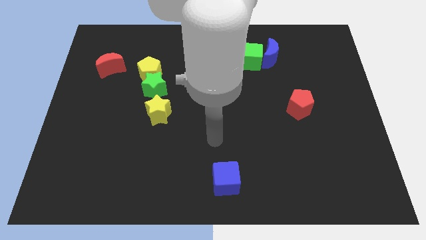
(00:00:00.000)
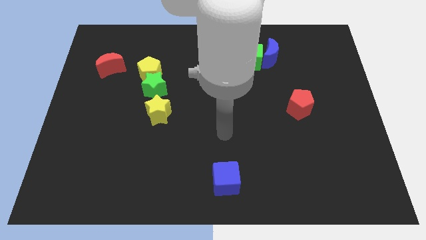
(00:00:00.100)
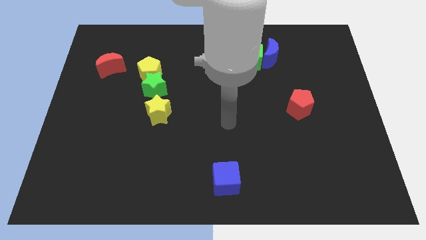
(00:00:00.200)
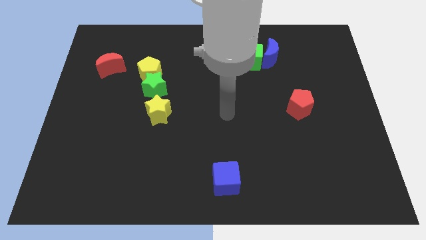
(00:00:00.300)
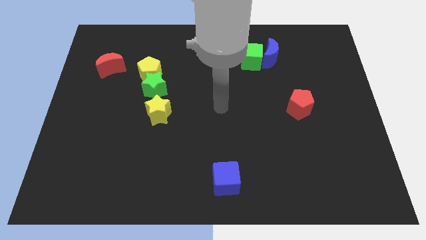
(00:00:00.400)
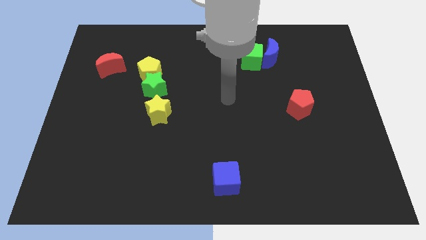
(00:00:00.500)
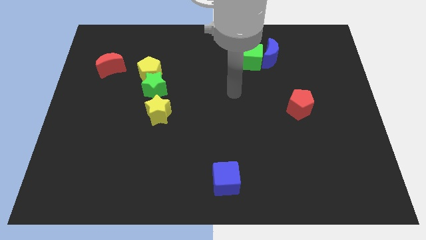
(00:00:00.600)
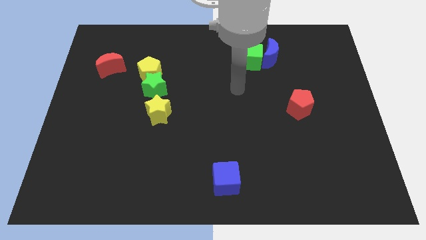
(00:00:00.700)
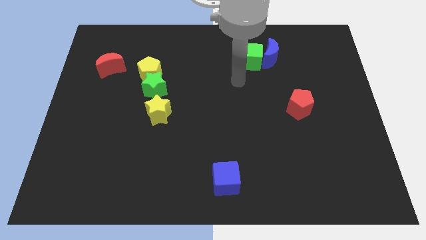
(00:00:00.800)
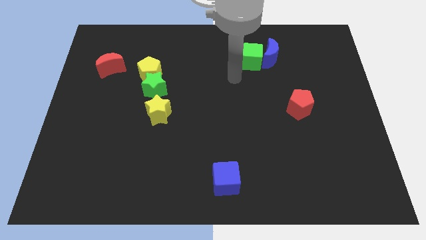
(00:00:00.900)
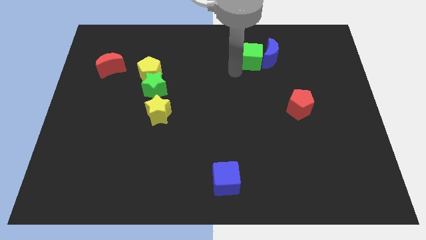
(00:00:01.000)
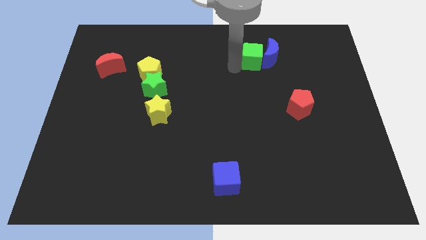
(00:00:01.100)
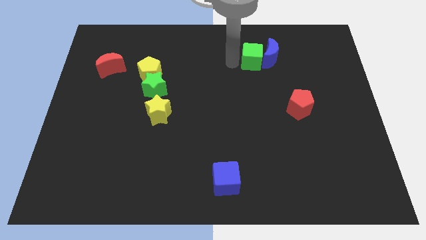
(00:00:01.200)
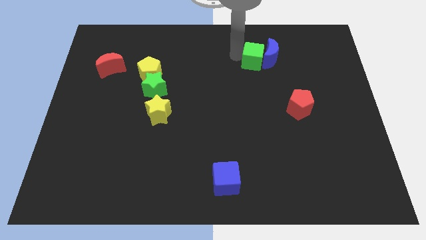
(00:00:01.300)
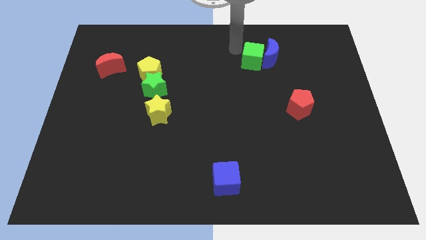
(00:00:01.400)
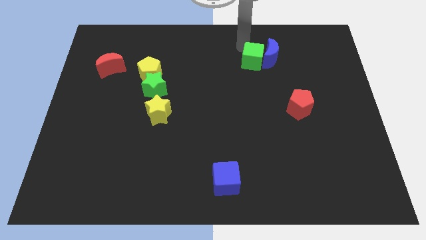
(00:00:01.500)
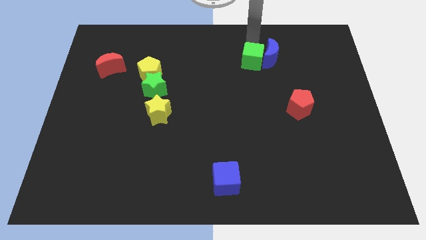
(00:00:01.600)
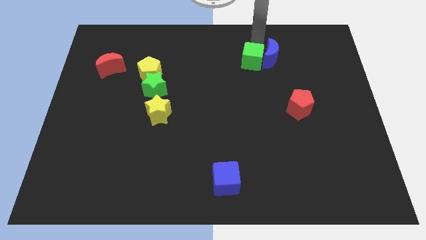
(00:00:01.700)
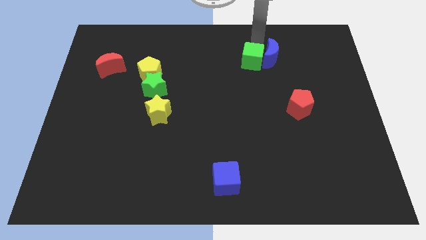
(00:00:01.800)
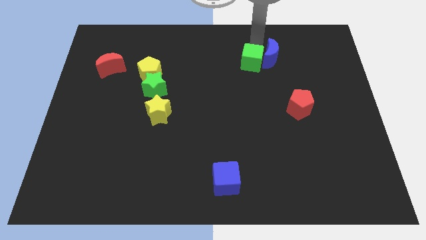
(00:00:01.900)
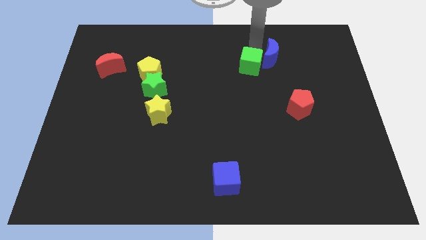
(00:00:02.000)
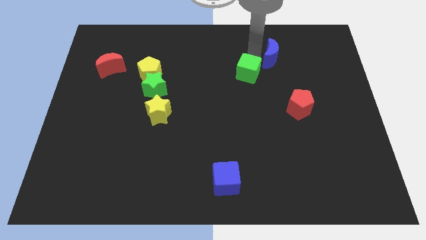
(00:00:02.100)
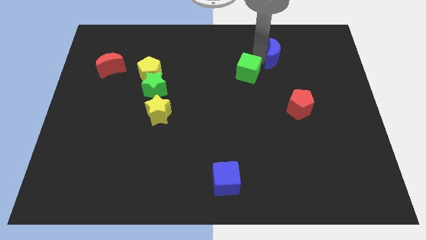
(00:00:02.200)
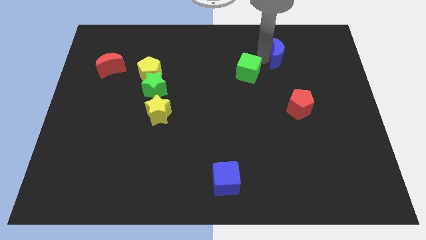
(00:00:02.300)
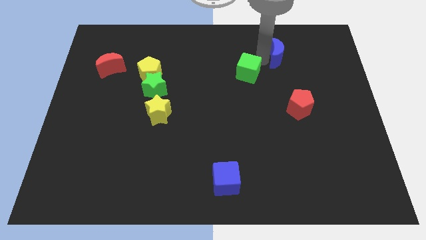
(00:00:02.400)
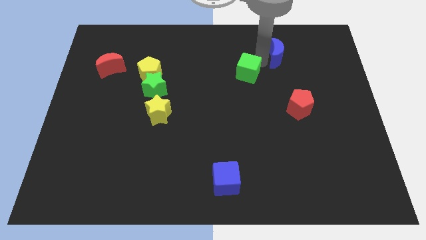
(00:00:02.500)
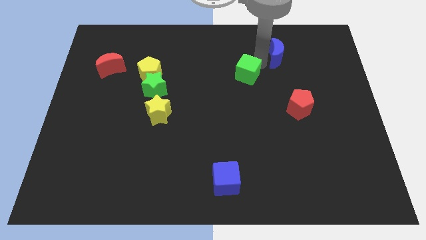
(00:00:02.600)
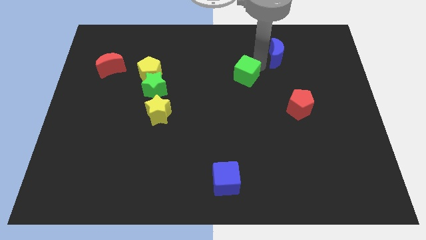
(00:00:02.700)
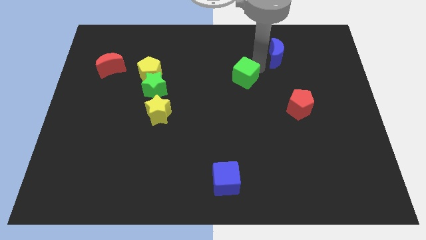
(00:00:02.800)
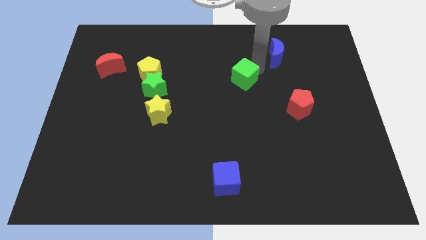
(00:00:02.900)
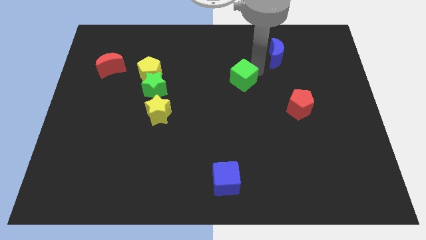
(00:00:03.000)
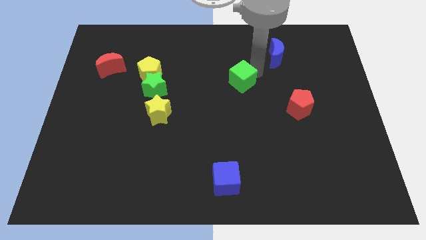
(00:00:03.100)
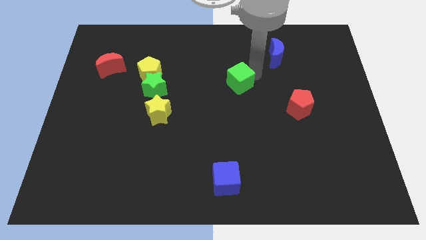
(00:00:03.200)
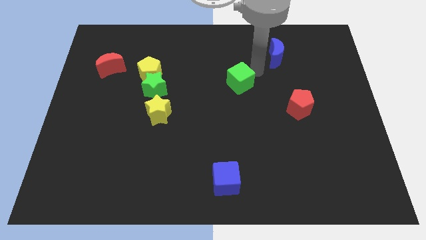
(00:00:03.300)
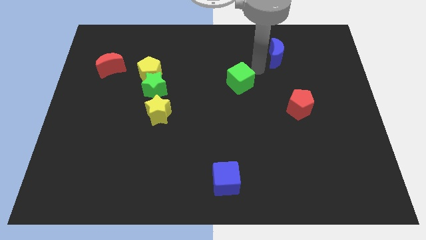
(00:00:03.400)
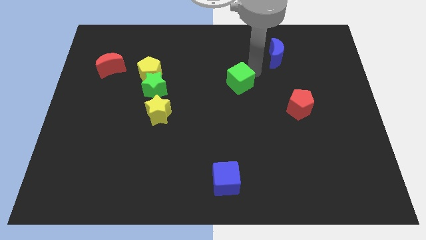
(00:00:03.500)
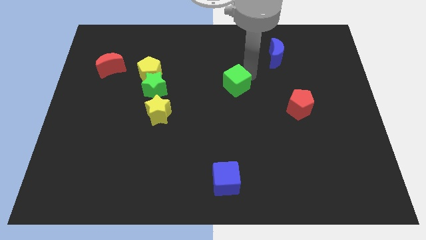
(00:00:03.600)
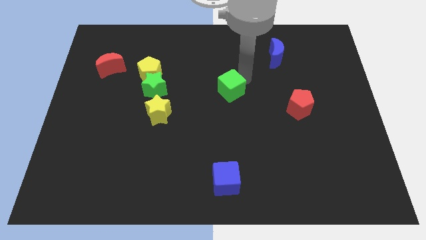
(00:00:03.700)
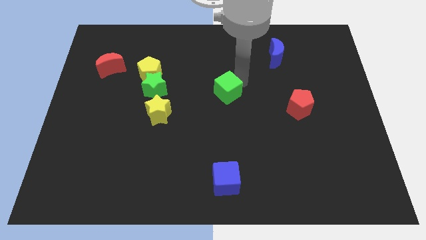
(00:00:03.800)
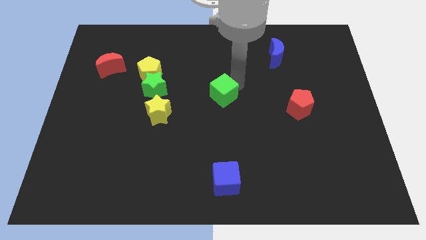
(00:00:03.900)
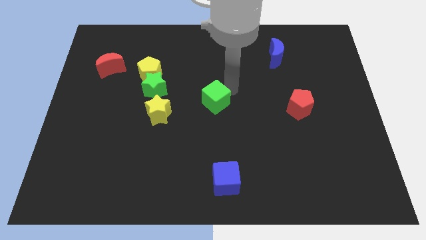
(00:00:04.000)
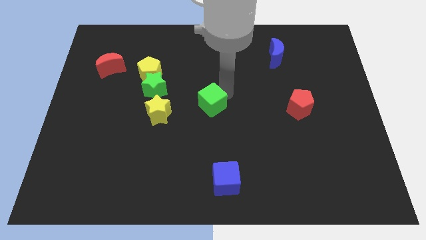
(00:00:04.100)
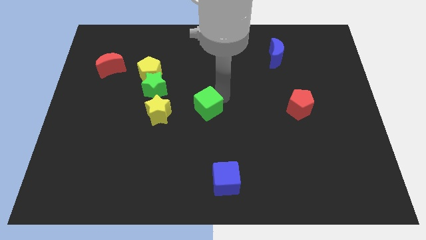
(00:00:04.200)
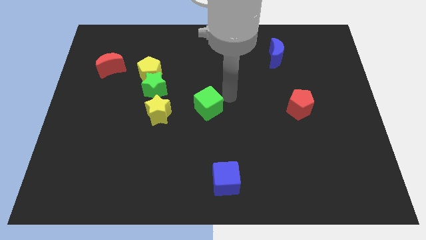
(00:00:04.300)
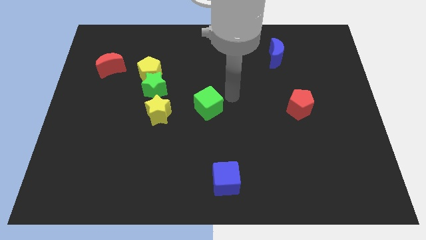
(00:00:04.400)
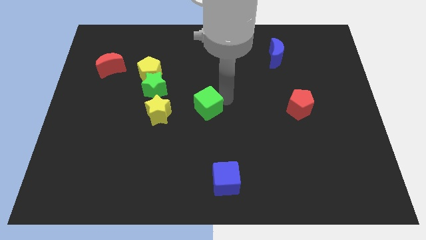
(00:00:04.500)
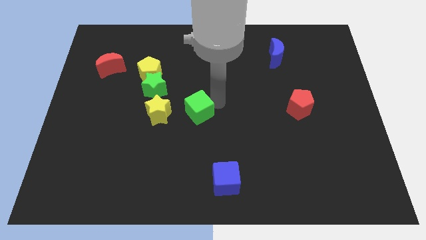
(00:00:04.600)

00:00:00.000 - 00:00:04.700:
push the green cube down and then left

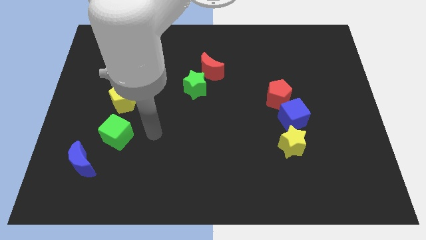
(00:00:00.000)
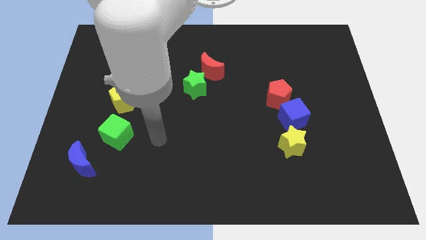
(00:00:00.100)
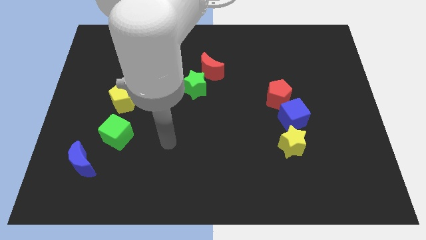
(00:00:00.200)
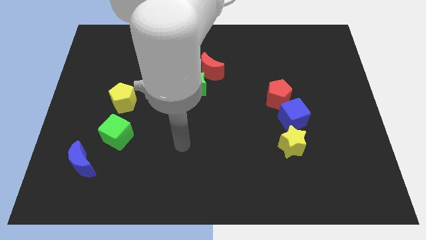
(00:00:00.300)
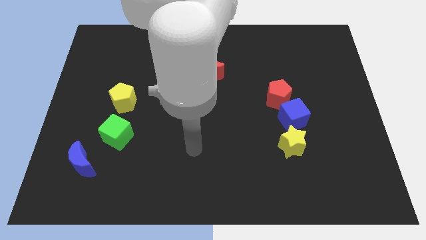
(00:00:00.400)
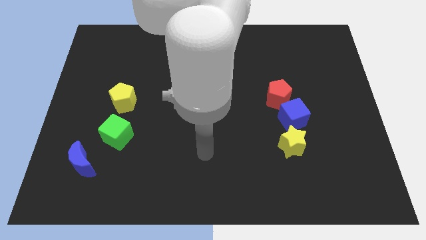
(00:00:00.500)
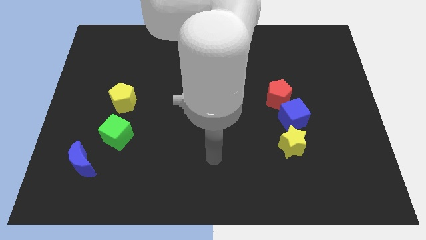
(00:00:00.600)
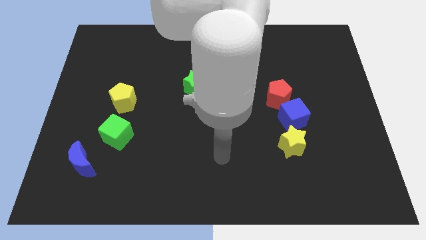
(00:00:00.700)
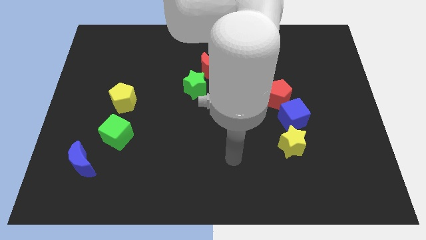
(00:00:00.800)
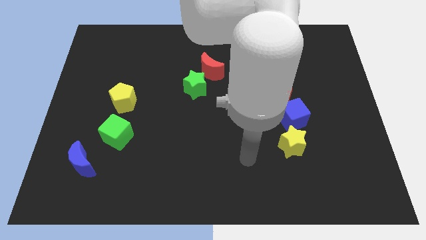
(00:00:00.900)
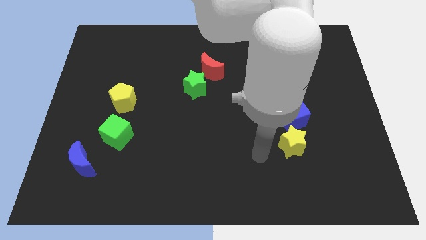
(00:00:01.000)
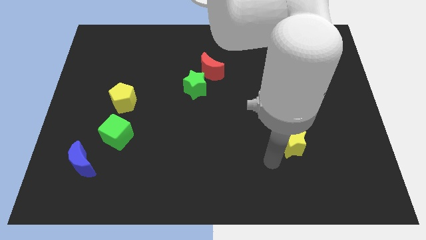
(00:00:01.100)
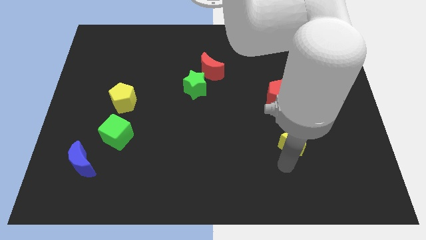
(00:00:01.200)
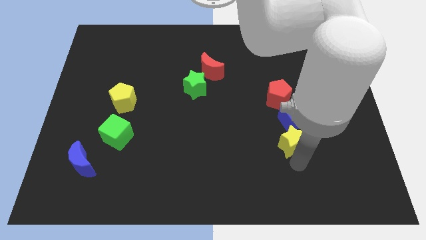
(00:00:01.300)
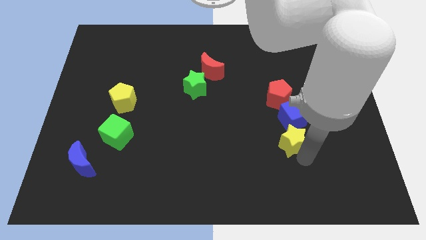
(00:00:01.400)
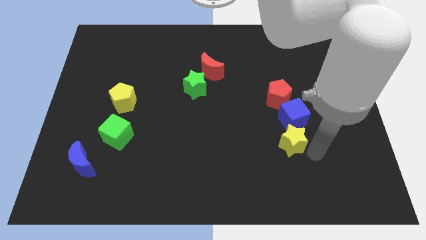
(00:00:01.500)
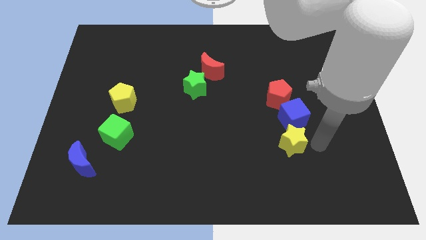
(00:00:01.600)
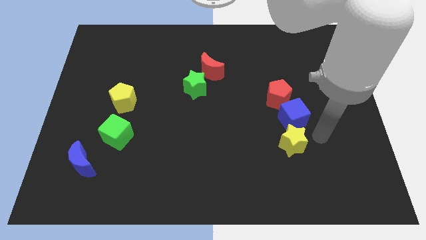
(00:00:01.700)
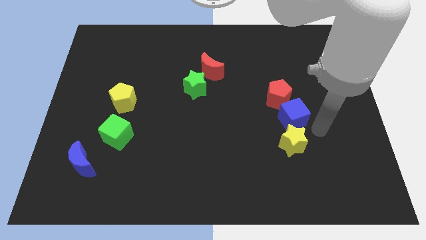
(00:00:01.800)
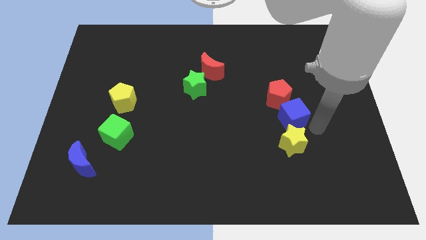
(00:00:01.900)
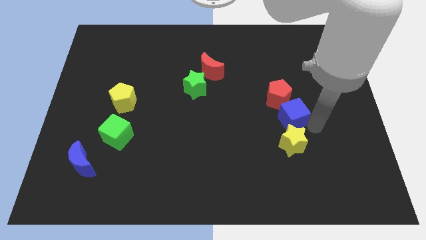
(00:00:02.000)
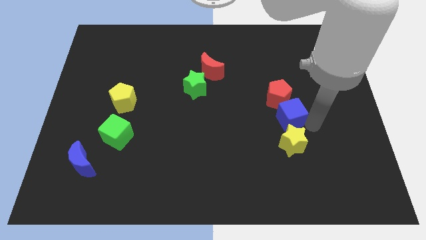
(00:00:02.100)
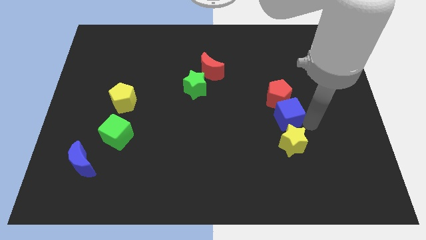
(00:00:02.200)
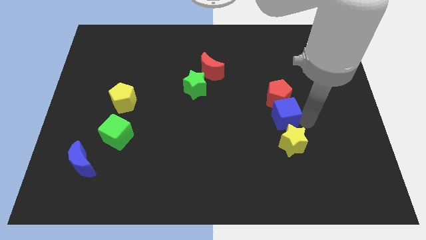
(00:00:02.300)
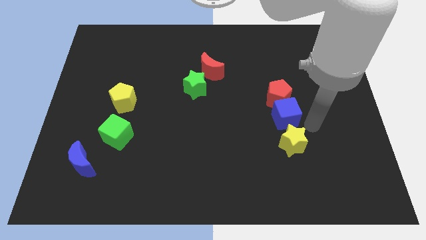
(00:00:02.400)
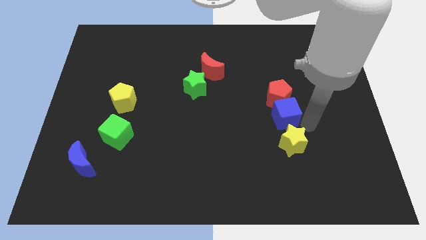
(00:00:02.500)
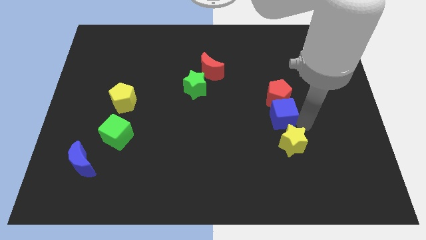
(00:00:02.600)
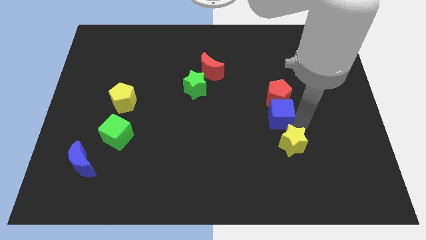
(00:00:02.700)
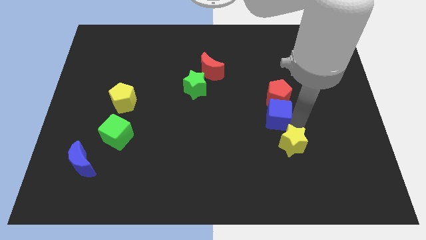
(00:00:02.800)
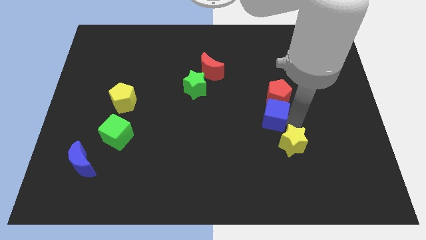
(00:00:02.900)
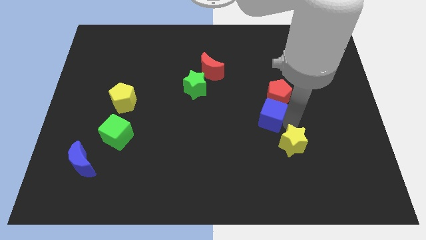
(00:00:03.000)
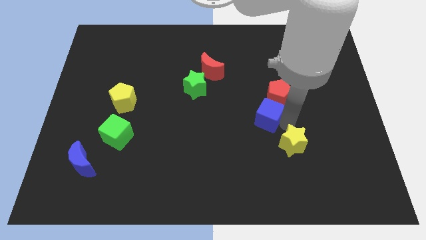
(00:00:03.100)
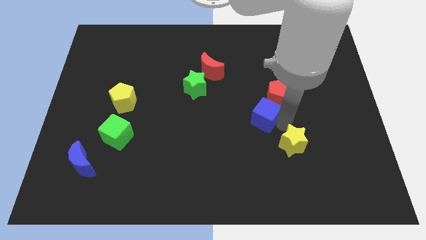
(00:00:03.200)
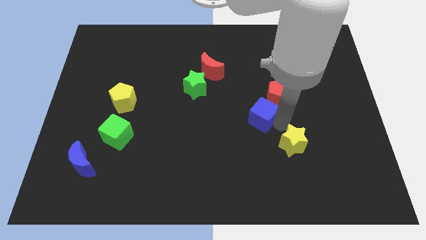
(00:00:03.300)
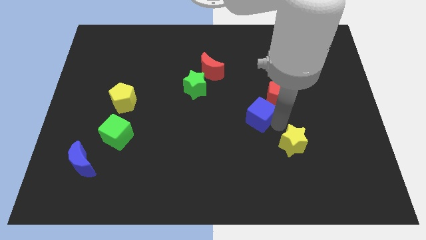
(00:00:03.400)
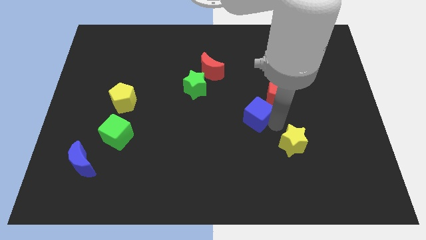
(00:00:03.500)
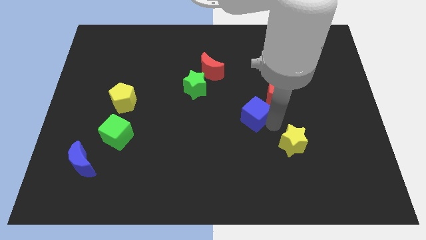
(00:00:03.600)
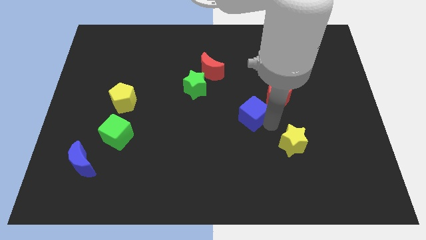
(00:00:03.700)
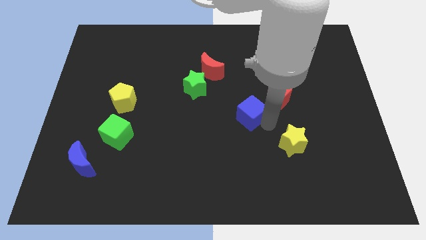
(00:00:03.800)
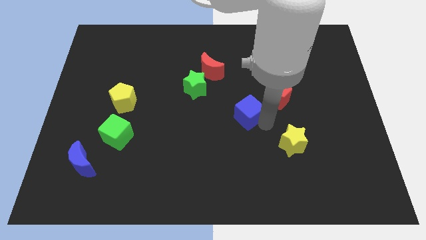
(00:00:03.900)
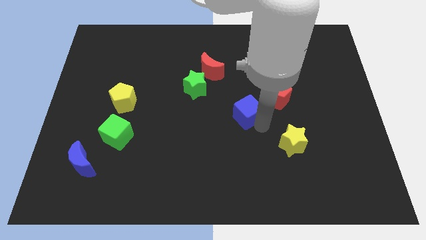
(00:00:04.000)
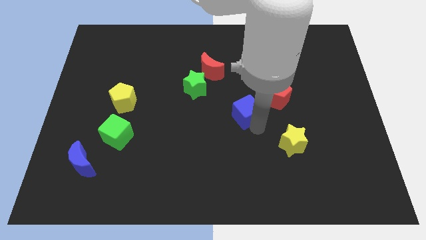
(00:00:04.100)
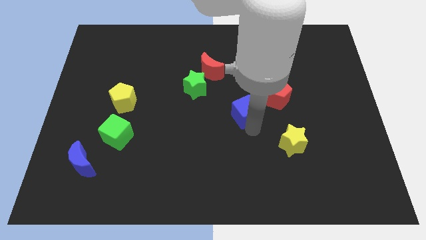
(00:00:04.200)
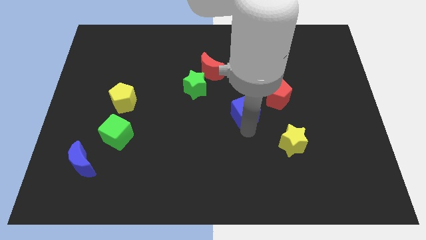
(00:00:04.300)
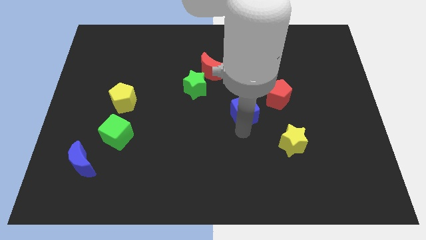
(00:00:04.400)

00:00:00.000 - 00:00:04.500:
slightly move the blue cube diagonally up and to the left
